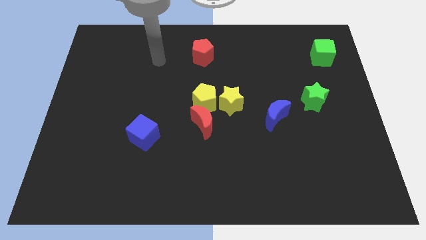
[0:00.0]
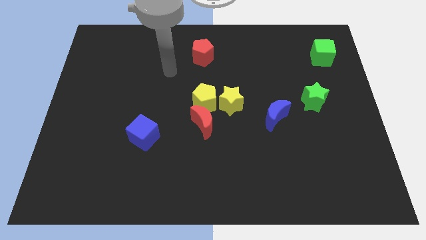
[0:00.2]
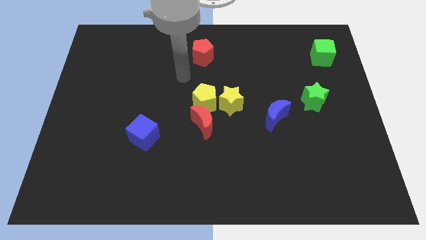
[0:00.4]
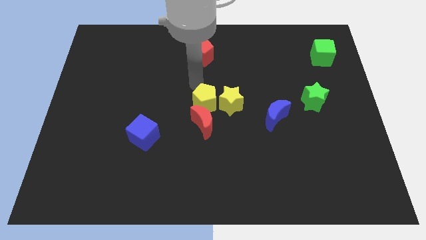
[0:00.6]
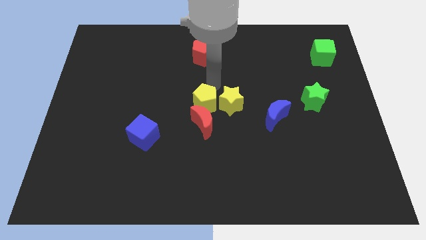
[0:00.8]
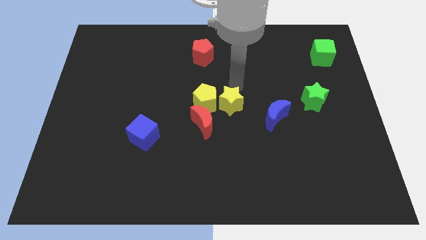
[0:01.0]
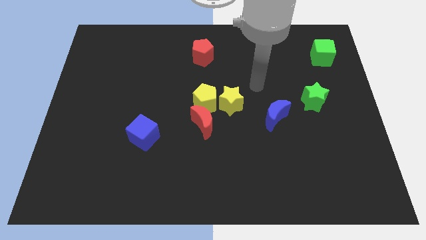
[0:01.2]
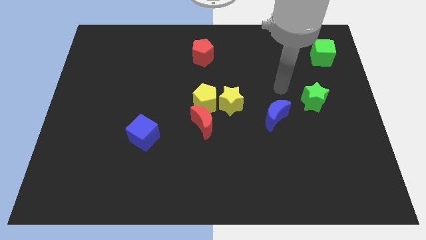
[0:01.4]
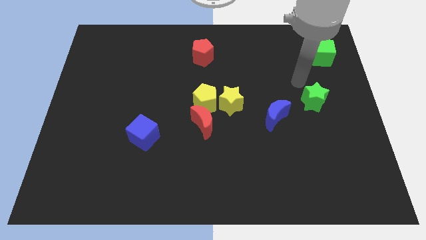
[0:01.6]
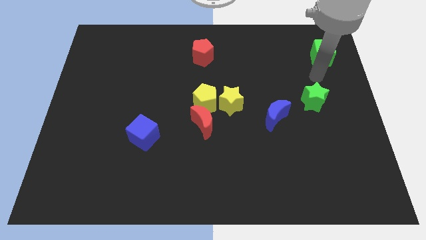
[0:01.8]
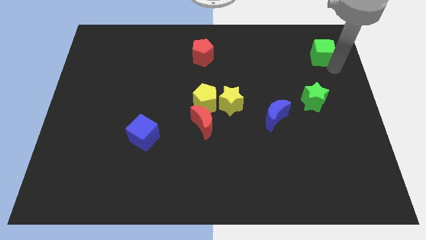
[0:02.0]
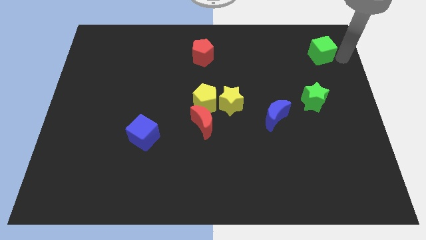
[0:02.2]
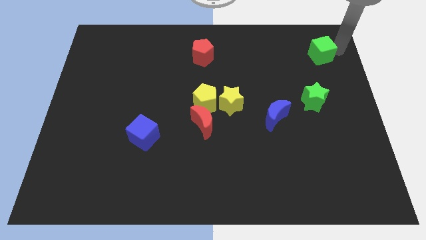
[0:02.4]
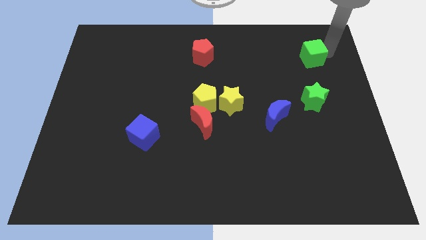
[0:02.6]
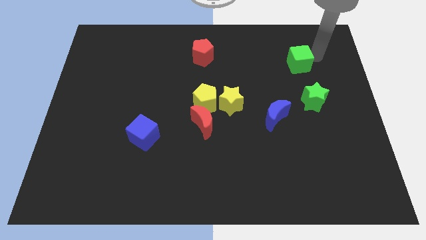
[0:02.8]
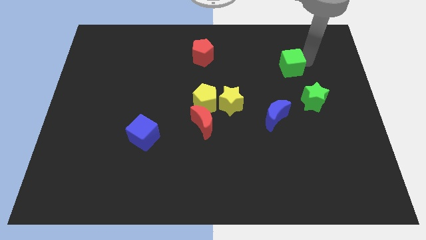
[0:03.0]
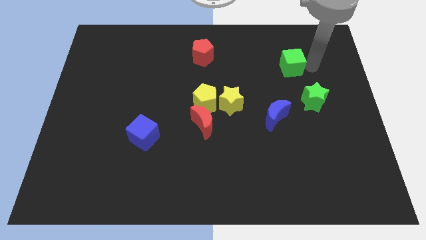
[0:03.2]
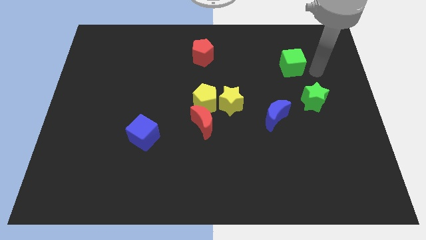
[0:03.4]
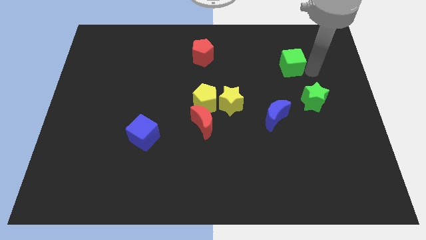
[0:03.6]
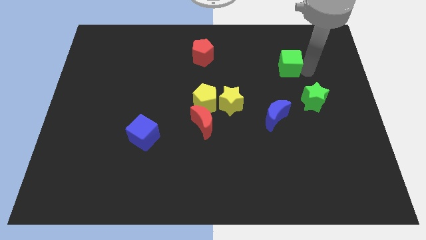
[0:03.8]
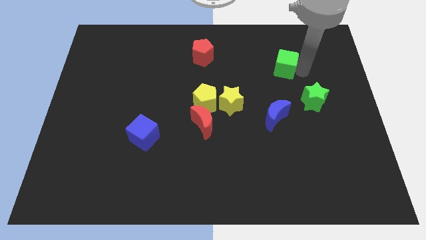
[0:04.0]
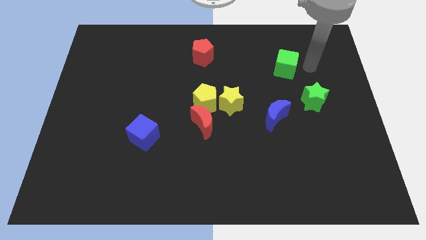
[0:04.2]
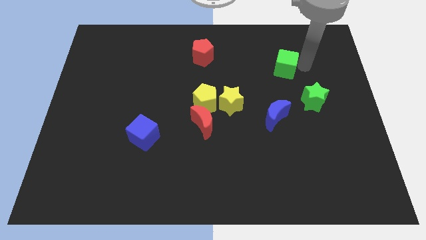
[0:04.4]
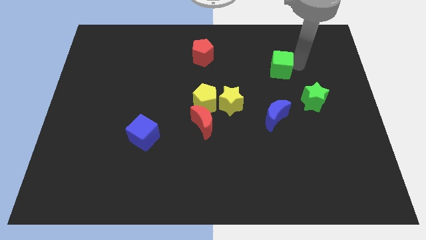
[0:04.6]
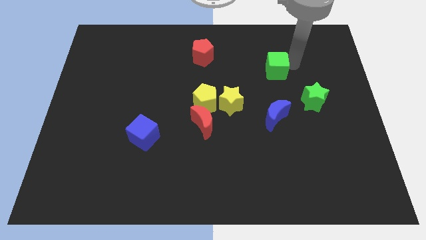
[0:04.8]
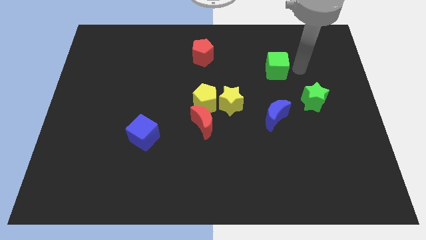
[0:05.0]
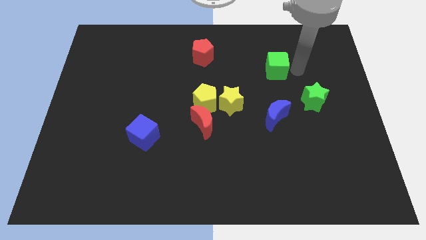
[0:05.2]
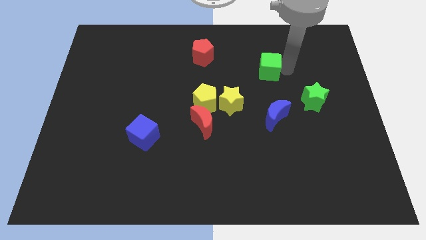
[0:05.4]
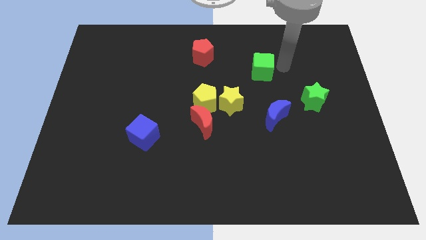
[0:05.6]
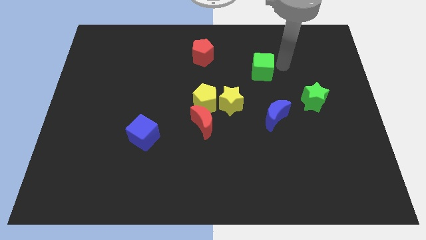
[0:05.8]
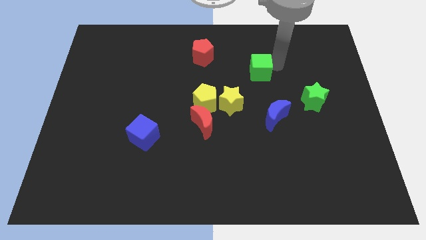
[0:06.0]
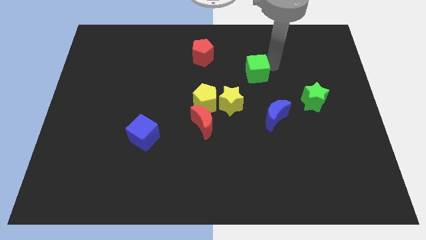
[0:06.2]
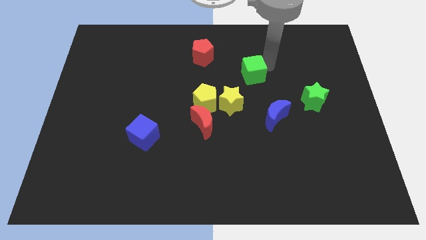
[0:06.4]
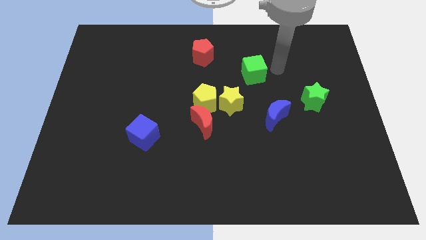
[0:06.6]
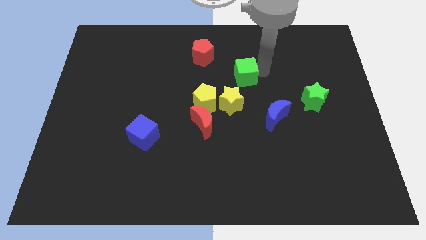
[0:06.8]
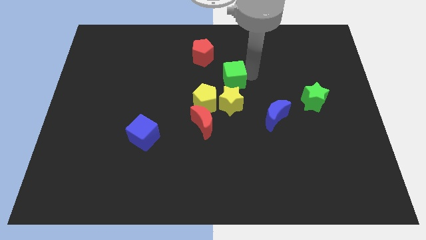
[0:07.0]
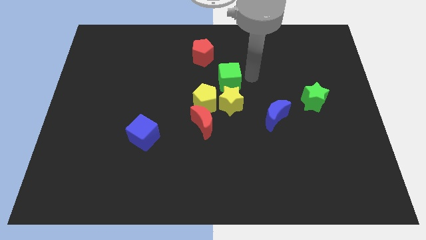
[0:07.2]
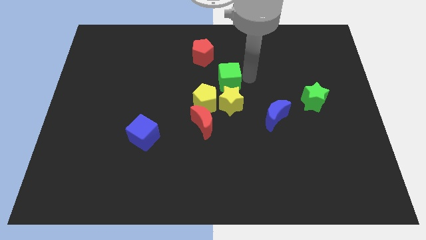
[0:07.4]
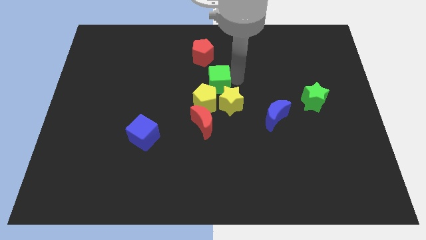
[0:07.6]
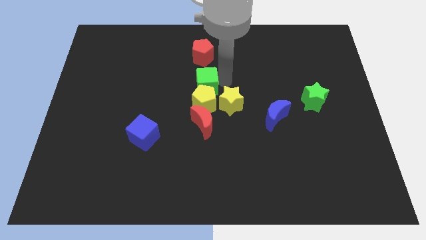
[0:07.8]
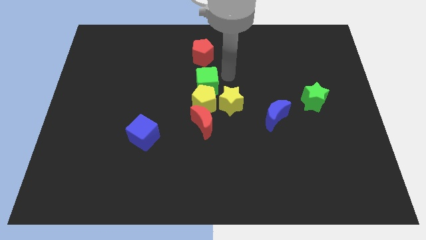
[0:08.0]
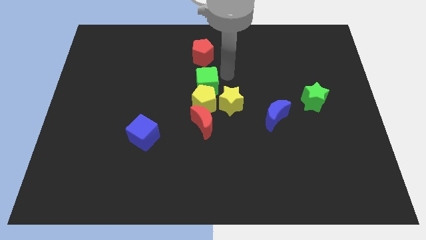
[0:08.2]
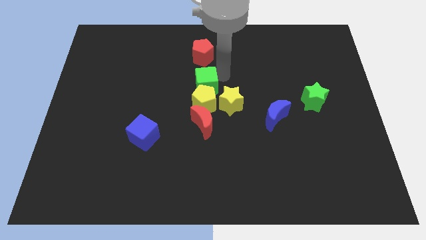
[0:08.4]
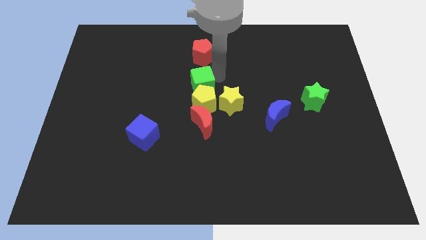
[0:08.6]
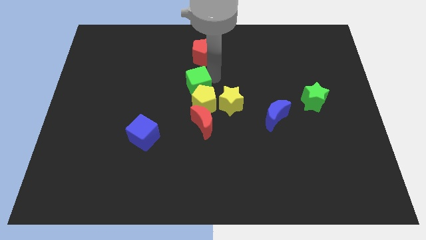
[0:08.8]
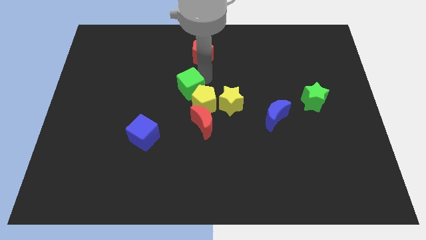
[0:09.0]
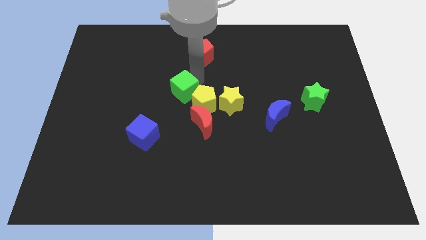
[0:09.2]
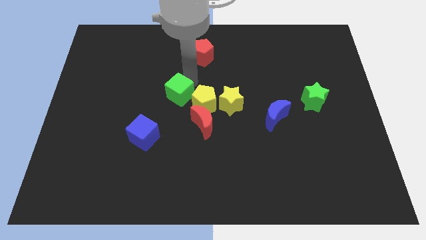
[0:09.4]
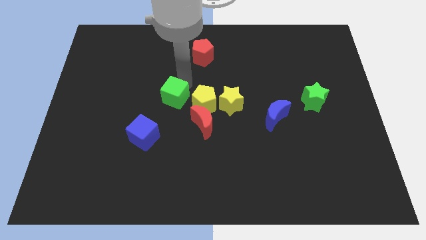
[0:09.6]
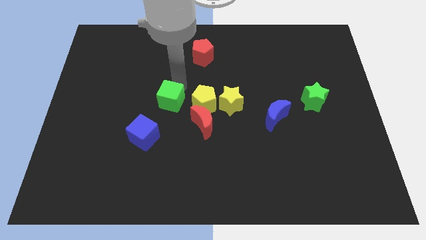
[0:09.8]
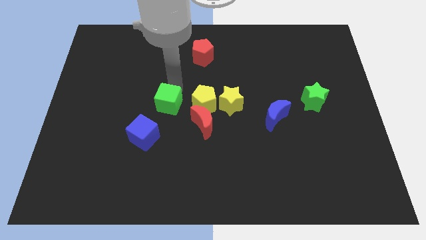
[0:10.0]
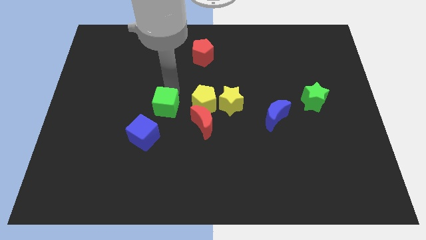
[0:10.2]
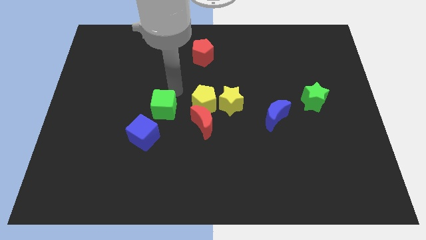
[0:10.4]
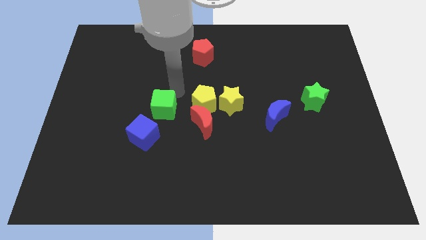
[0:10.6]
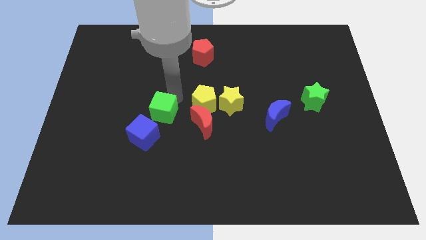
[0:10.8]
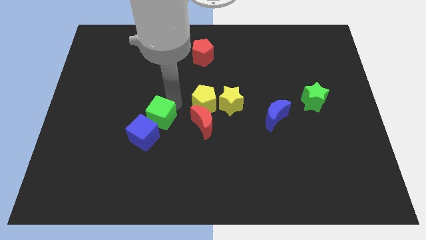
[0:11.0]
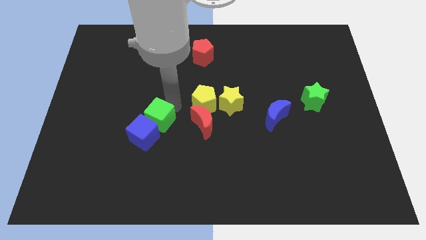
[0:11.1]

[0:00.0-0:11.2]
move the green cube next to the blue cube

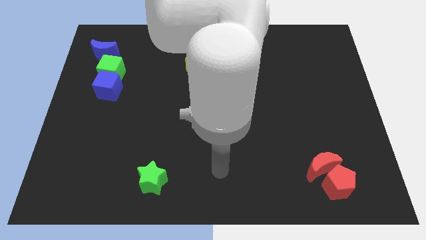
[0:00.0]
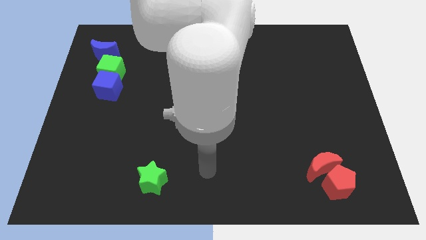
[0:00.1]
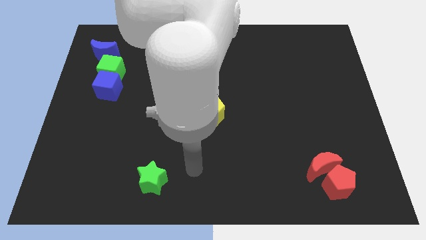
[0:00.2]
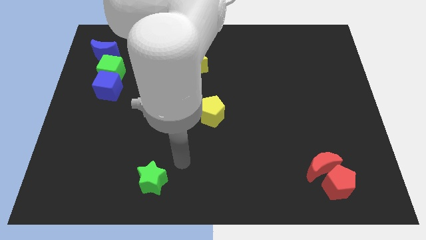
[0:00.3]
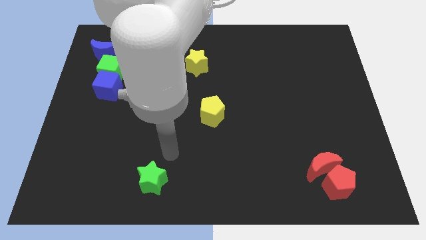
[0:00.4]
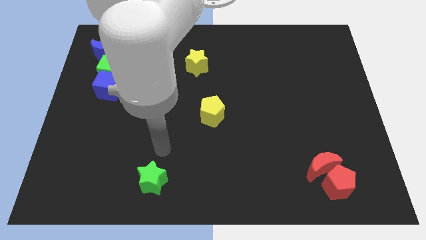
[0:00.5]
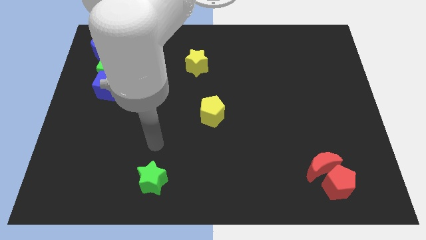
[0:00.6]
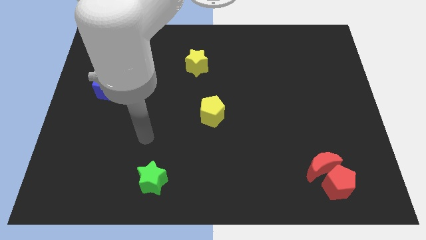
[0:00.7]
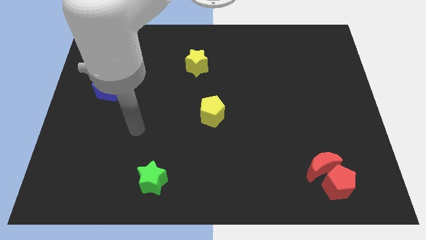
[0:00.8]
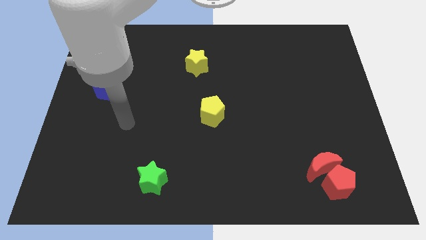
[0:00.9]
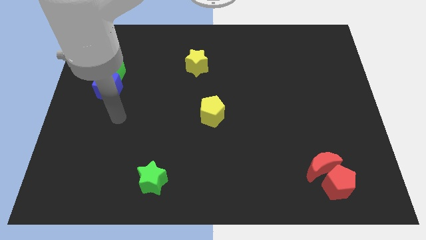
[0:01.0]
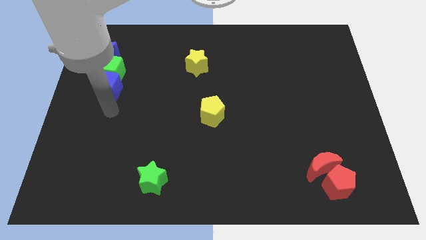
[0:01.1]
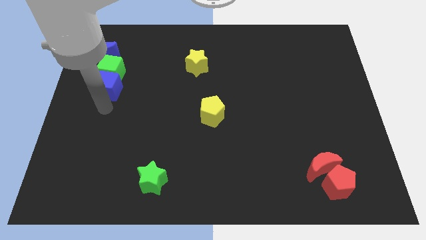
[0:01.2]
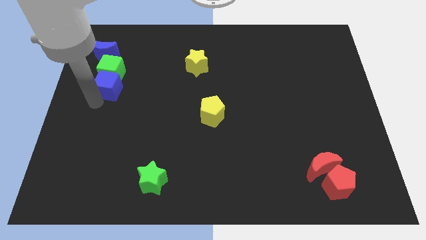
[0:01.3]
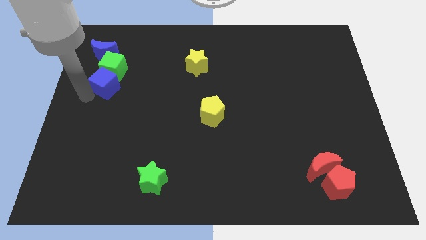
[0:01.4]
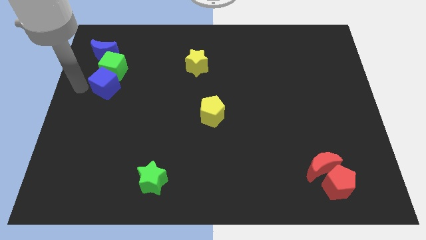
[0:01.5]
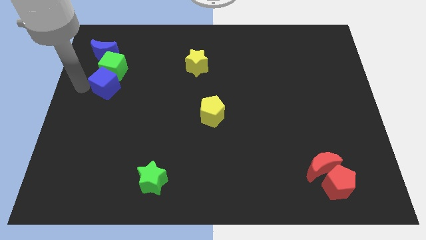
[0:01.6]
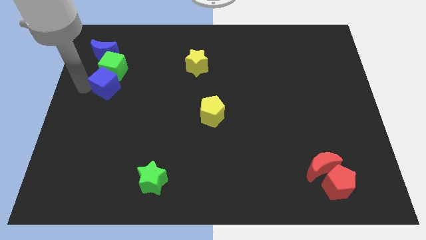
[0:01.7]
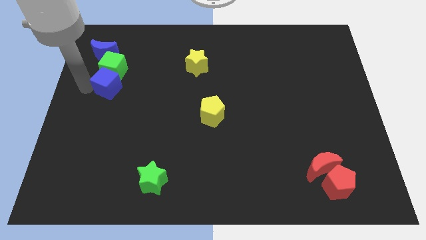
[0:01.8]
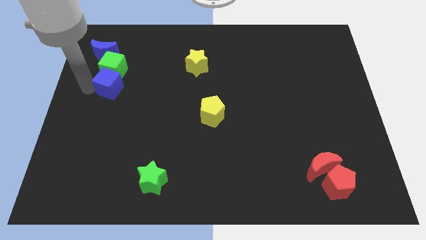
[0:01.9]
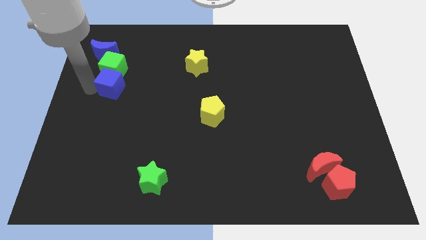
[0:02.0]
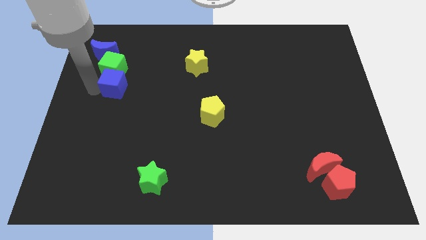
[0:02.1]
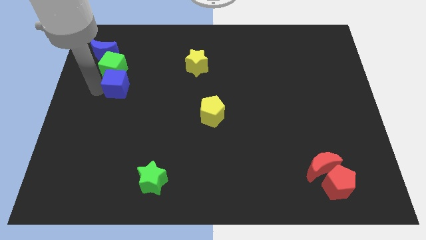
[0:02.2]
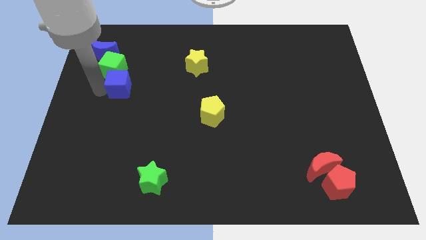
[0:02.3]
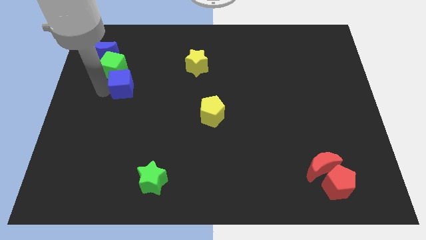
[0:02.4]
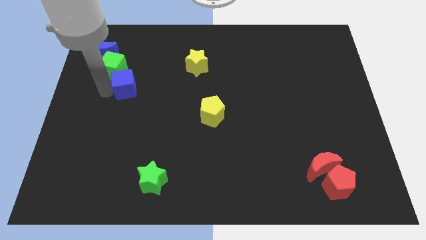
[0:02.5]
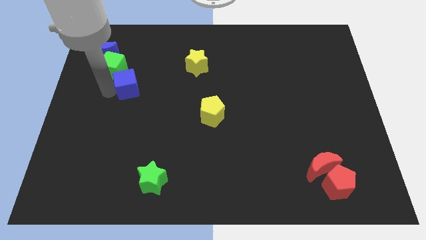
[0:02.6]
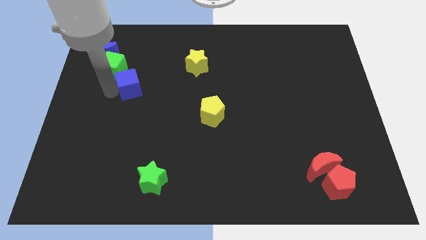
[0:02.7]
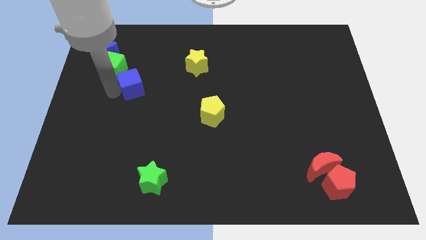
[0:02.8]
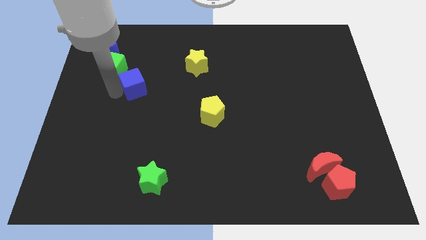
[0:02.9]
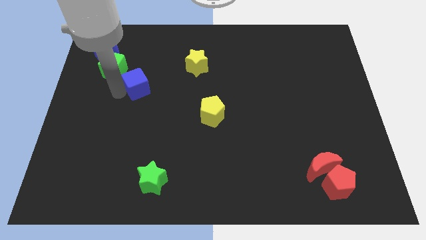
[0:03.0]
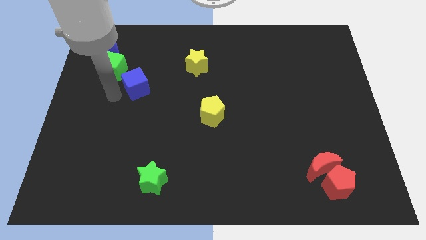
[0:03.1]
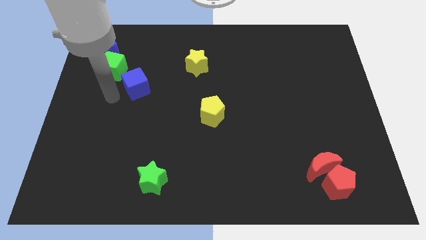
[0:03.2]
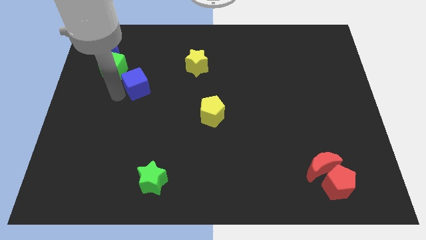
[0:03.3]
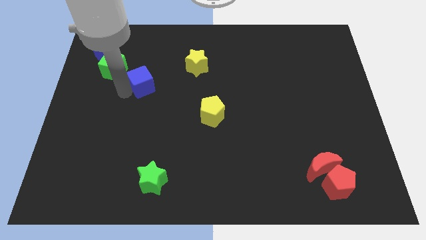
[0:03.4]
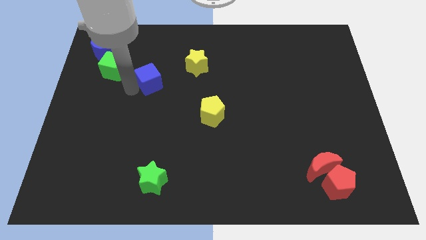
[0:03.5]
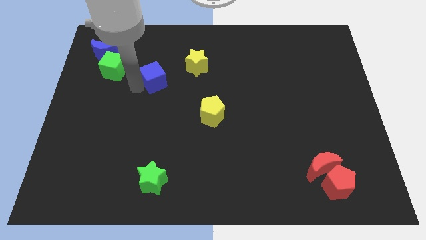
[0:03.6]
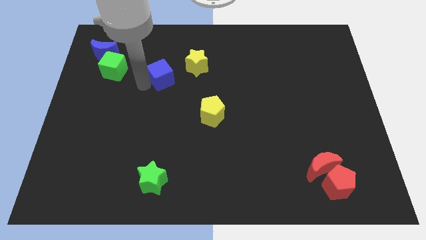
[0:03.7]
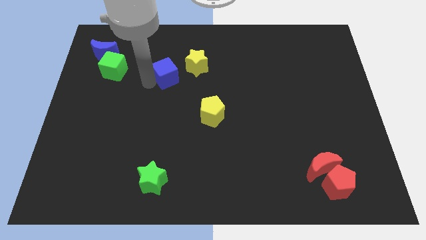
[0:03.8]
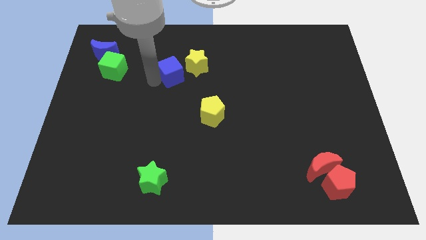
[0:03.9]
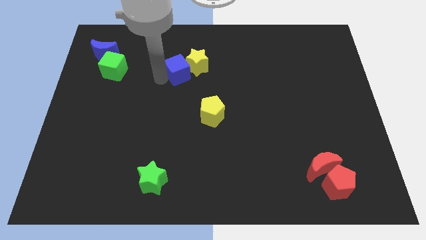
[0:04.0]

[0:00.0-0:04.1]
push the blue cube towards the yellow star
